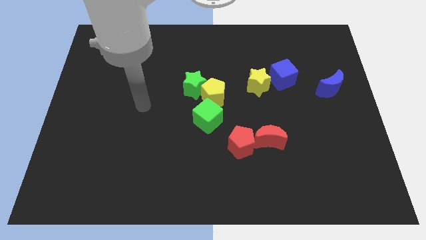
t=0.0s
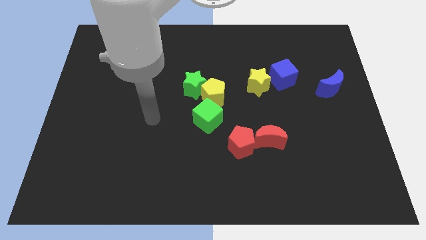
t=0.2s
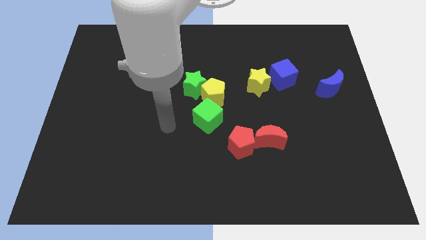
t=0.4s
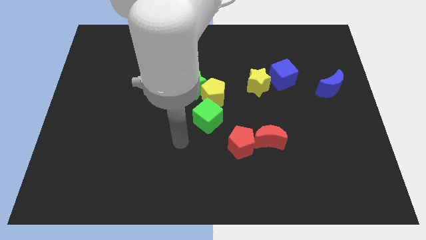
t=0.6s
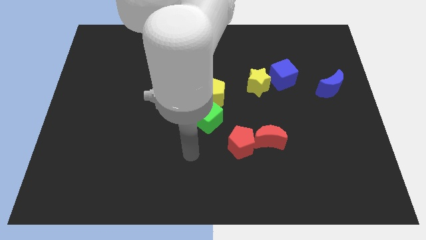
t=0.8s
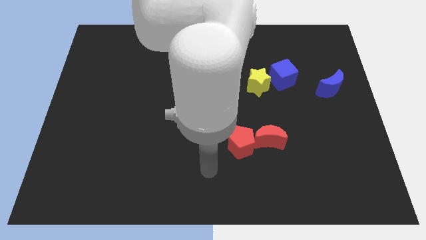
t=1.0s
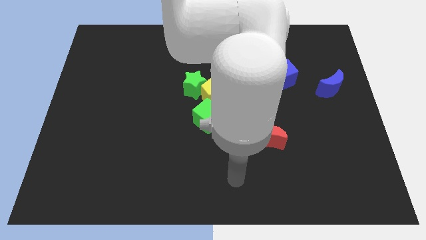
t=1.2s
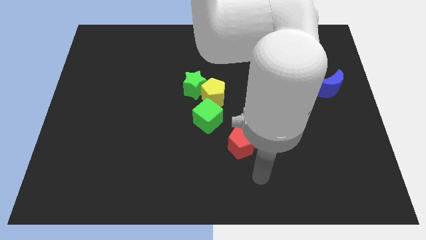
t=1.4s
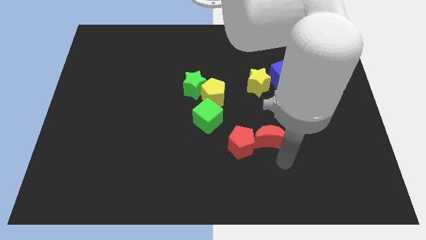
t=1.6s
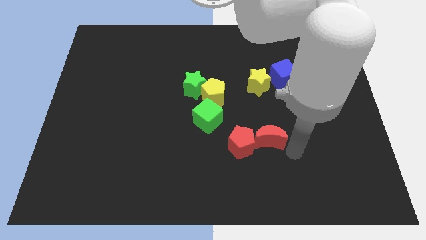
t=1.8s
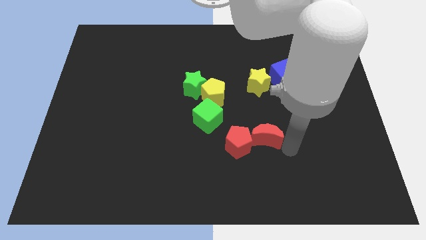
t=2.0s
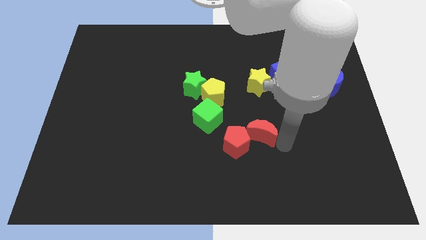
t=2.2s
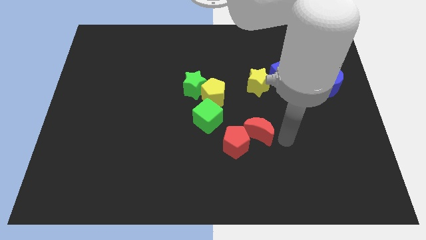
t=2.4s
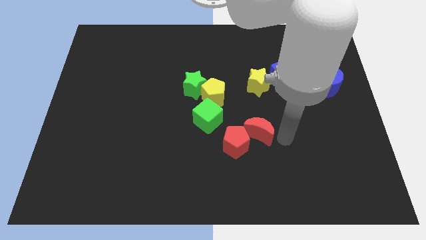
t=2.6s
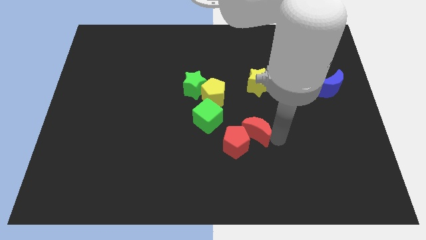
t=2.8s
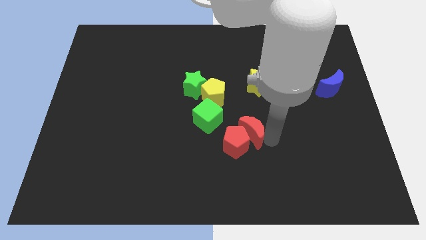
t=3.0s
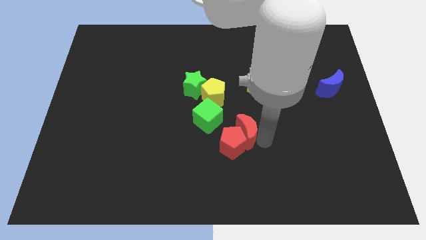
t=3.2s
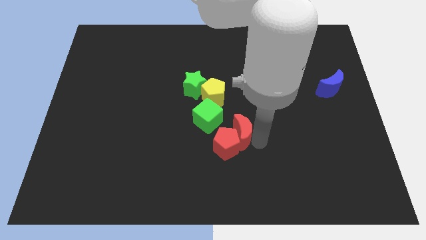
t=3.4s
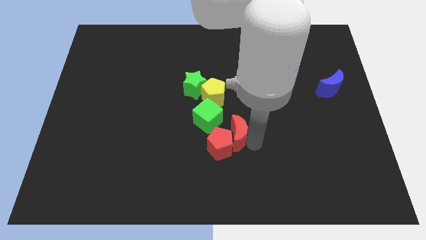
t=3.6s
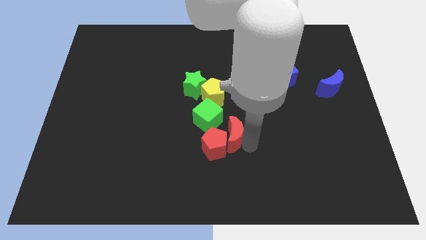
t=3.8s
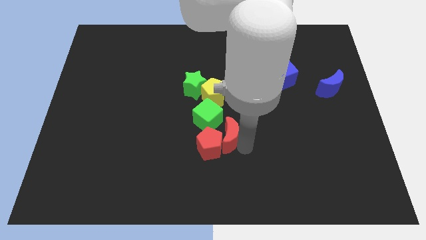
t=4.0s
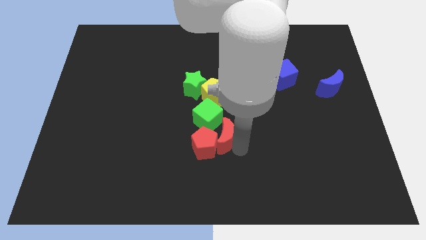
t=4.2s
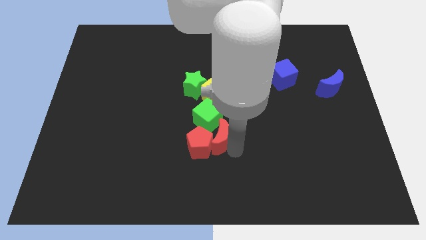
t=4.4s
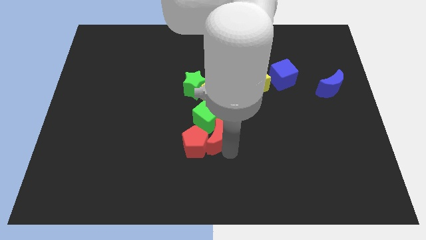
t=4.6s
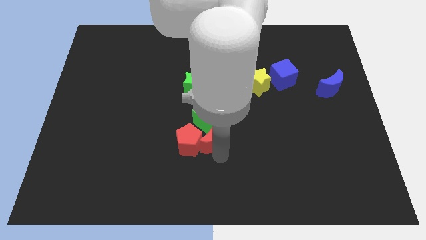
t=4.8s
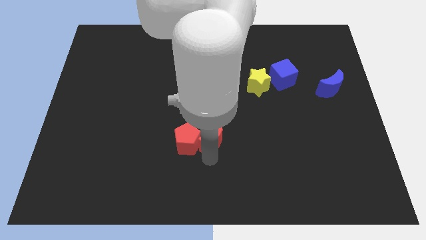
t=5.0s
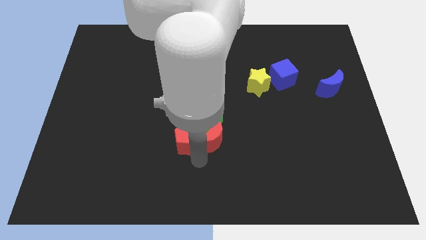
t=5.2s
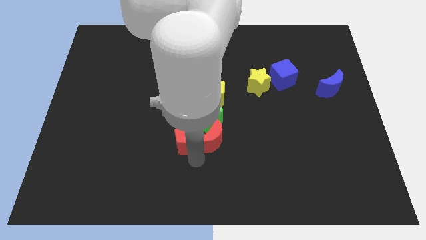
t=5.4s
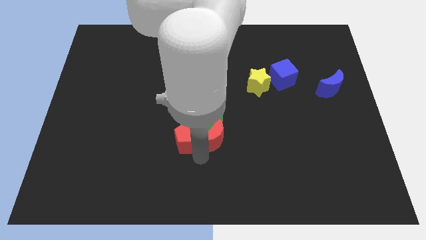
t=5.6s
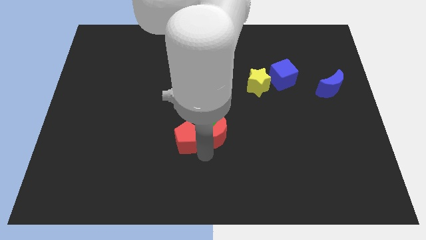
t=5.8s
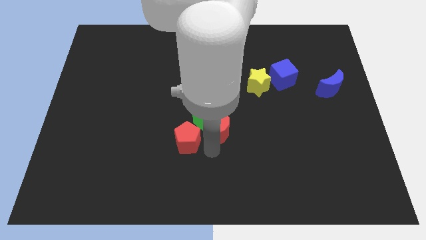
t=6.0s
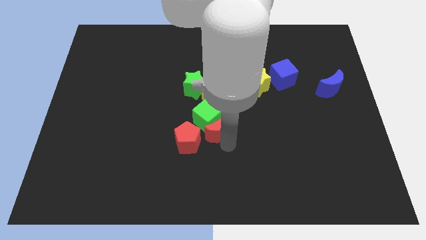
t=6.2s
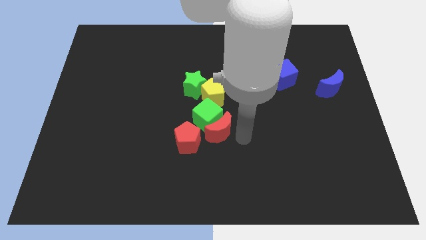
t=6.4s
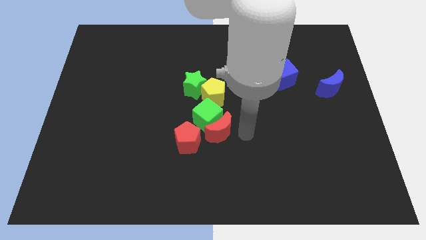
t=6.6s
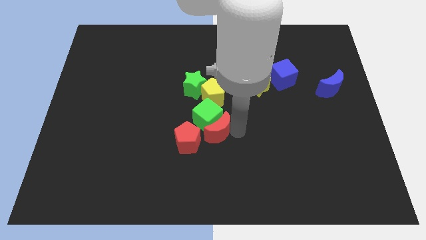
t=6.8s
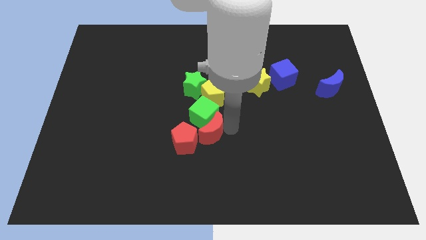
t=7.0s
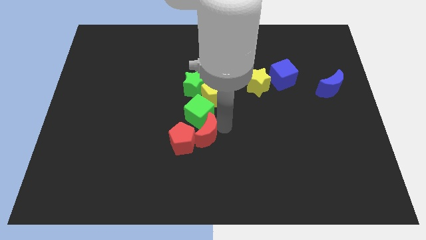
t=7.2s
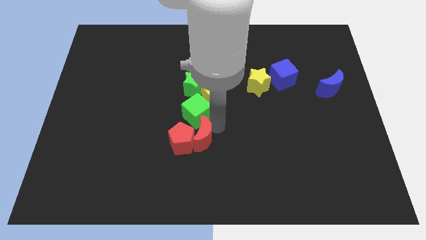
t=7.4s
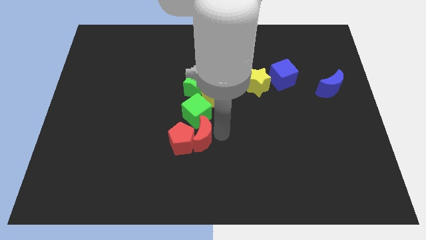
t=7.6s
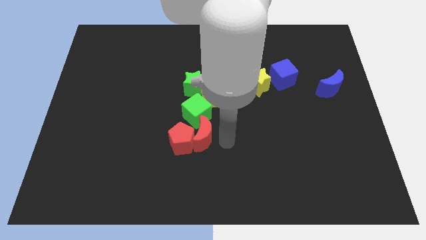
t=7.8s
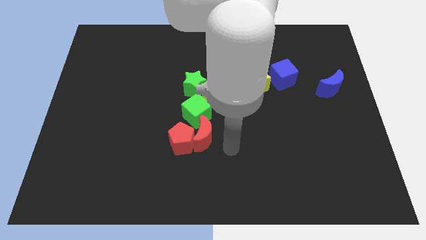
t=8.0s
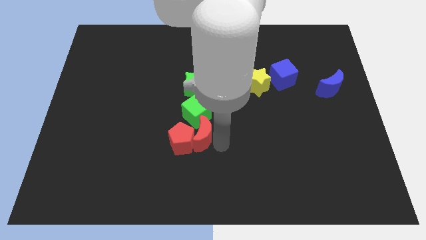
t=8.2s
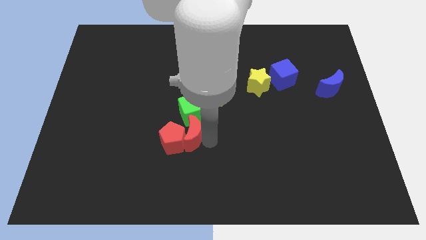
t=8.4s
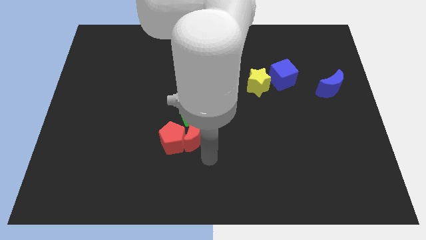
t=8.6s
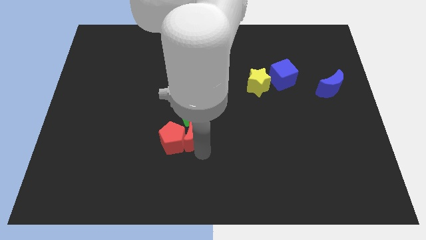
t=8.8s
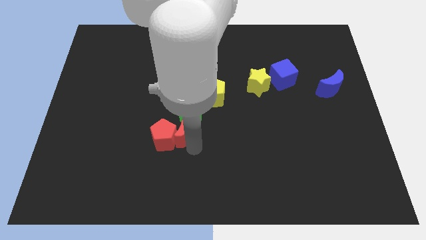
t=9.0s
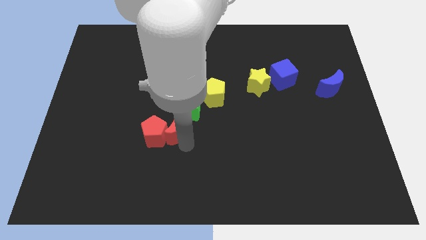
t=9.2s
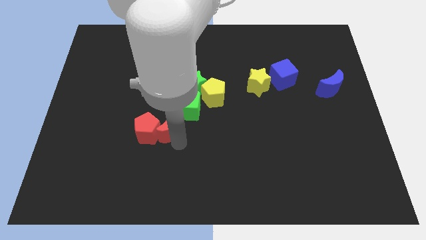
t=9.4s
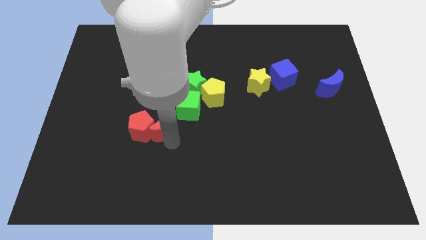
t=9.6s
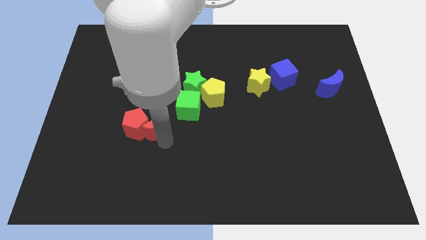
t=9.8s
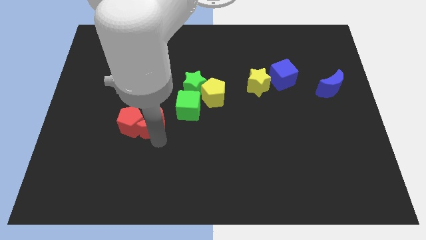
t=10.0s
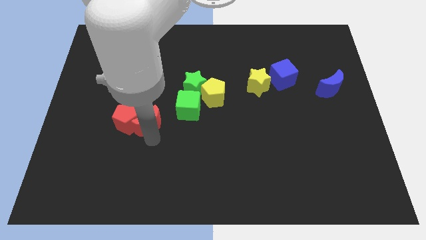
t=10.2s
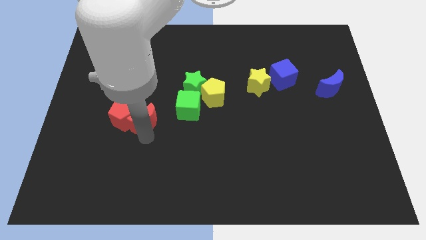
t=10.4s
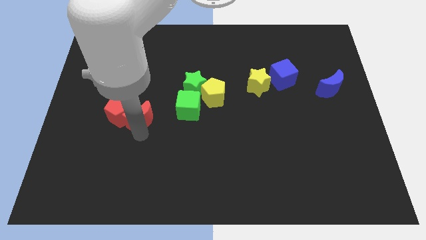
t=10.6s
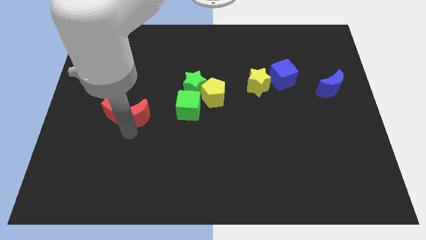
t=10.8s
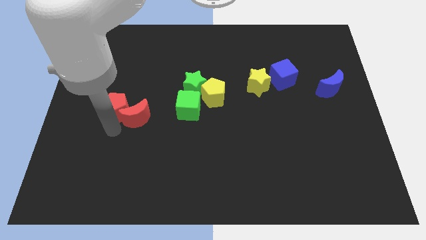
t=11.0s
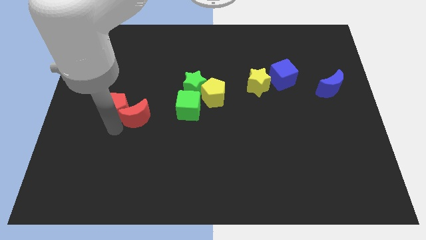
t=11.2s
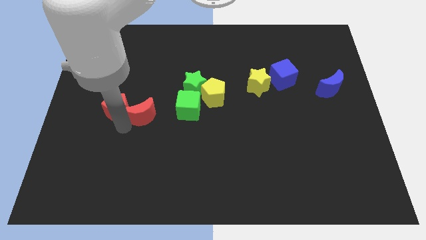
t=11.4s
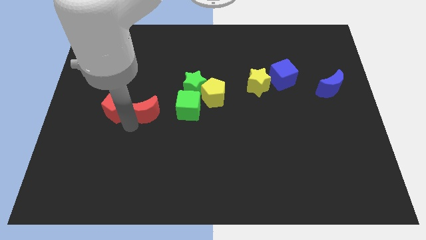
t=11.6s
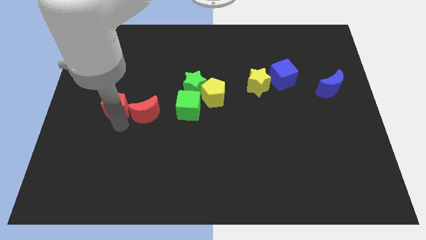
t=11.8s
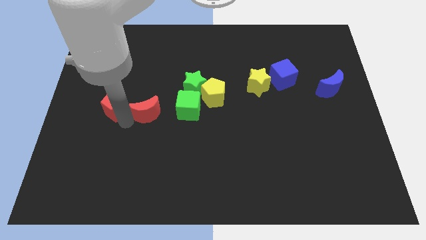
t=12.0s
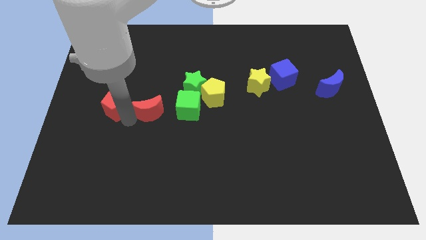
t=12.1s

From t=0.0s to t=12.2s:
move the red moon to the bottom left side of the green star

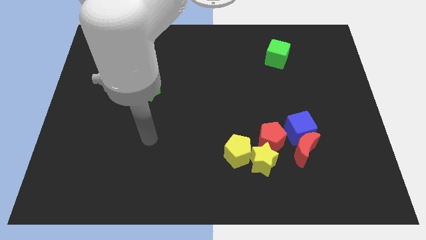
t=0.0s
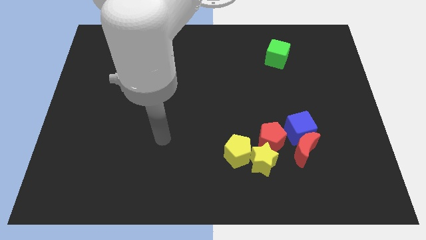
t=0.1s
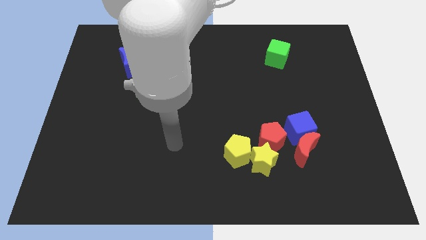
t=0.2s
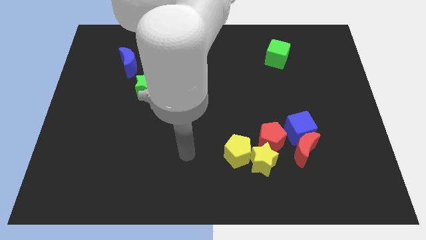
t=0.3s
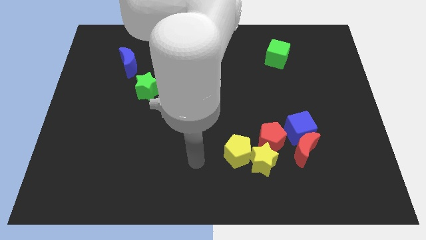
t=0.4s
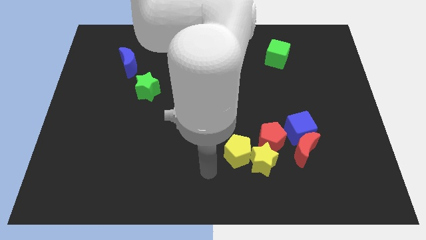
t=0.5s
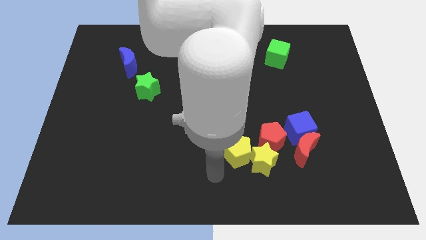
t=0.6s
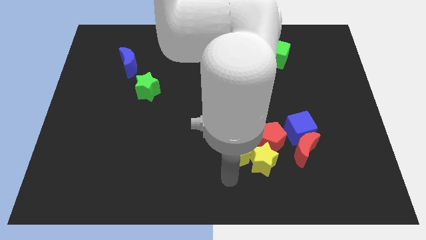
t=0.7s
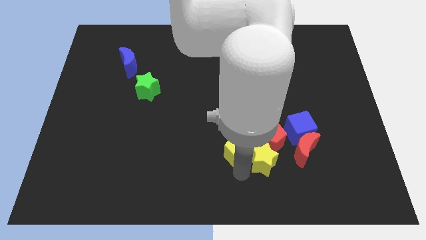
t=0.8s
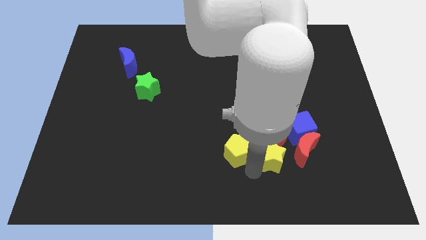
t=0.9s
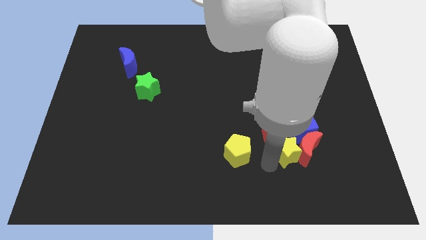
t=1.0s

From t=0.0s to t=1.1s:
put the red pentagon diagonally up and to the left of the blue cube
